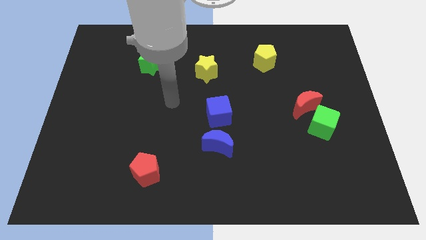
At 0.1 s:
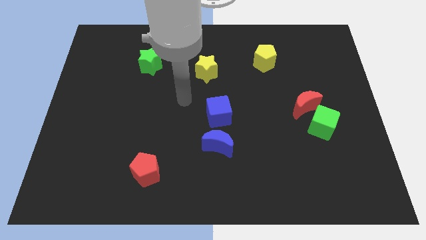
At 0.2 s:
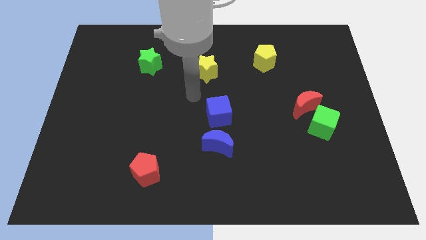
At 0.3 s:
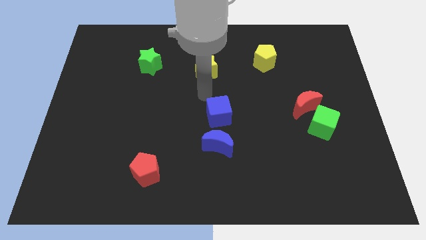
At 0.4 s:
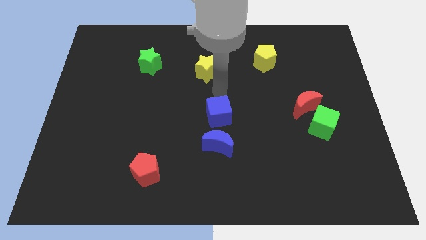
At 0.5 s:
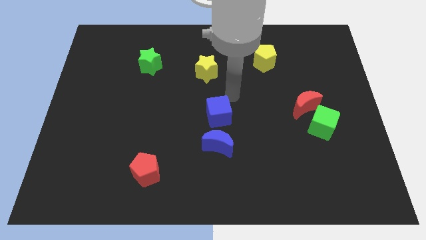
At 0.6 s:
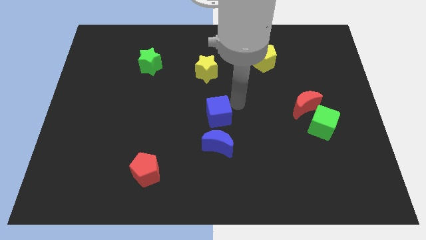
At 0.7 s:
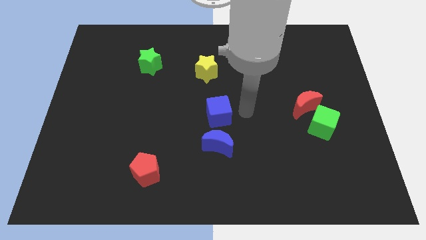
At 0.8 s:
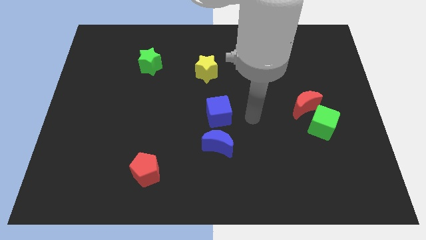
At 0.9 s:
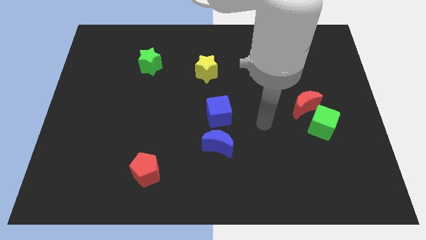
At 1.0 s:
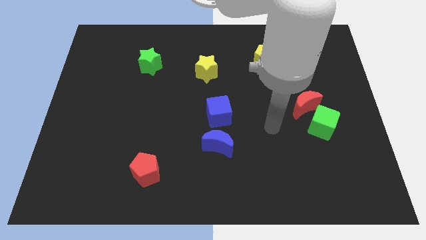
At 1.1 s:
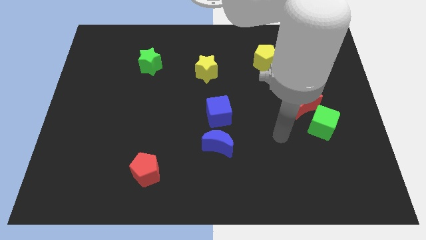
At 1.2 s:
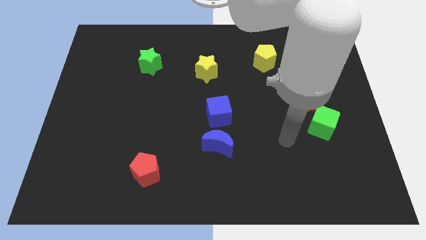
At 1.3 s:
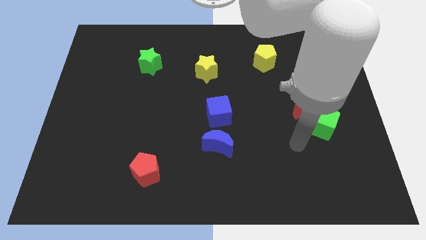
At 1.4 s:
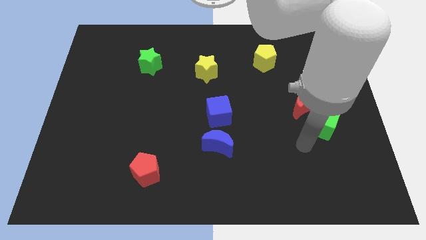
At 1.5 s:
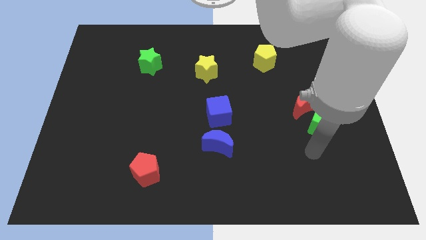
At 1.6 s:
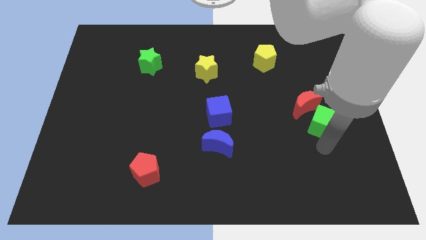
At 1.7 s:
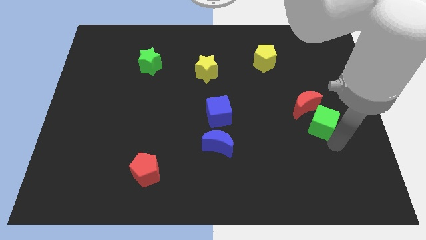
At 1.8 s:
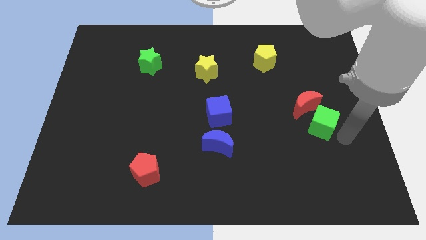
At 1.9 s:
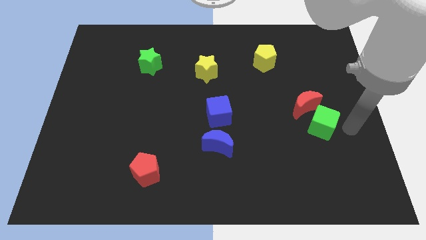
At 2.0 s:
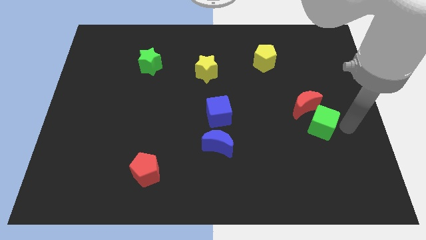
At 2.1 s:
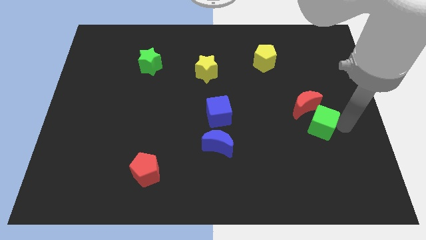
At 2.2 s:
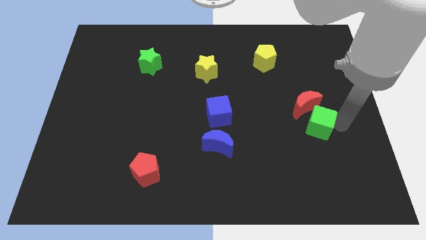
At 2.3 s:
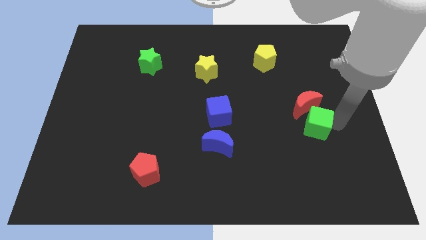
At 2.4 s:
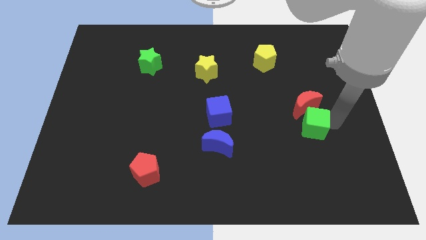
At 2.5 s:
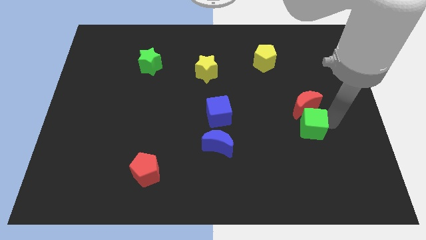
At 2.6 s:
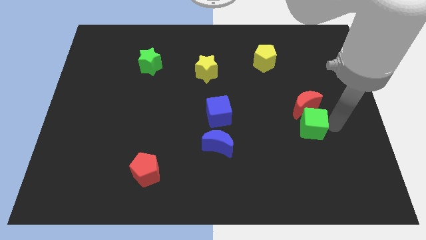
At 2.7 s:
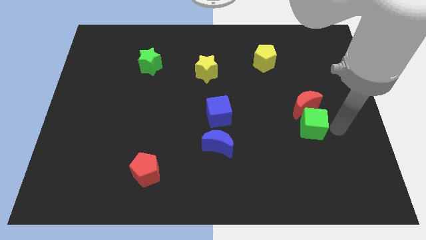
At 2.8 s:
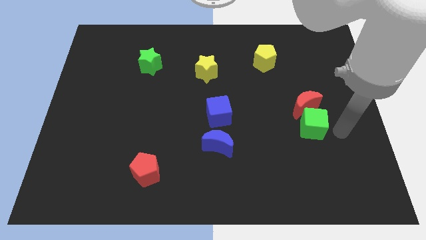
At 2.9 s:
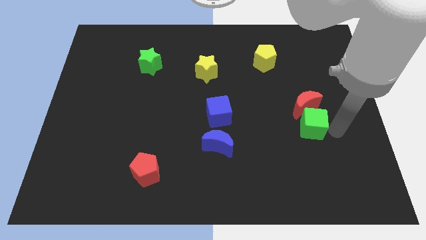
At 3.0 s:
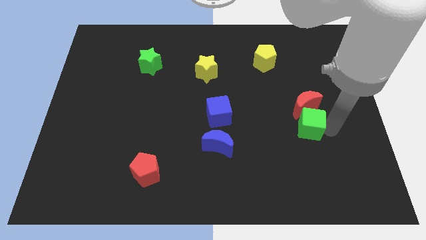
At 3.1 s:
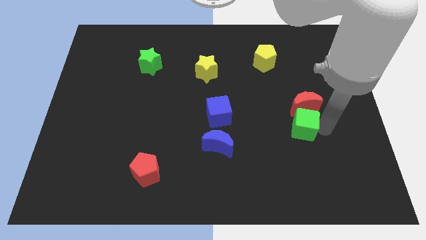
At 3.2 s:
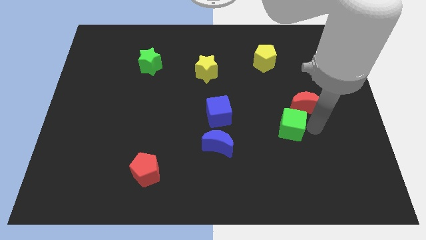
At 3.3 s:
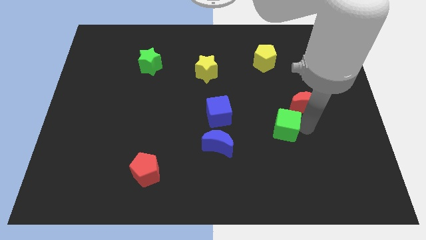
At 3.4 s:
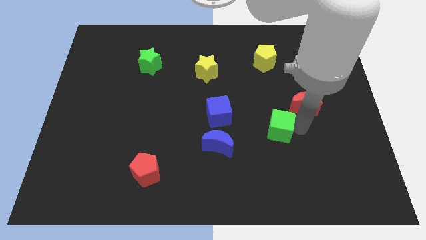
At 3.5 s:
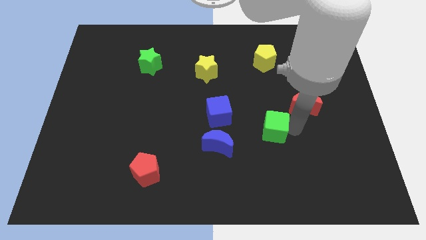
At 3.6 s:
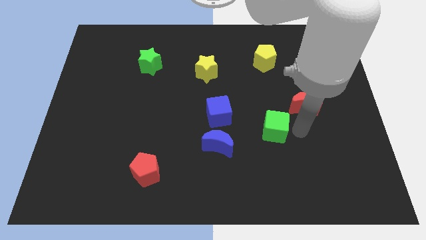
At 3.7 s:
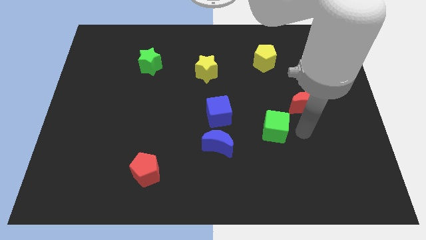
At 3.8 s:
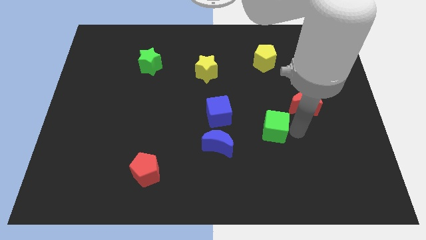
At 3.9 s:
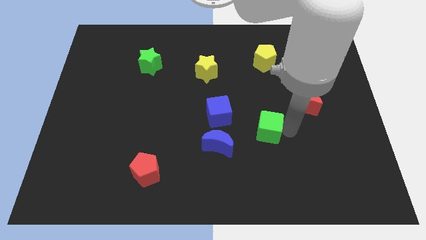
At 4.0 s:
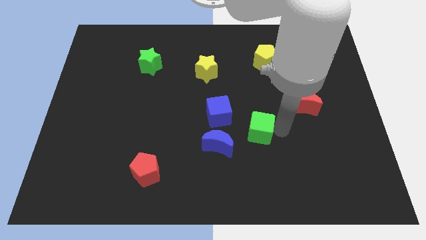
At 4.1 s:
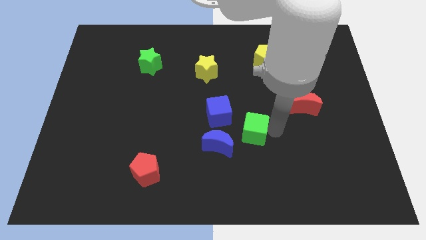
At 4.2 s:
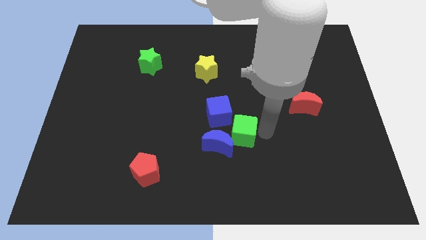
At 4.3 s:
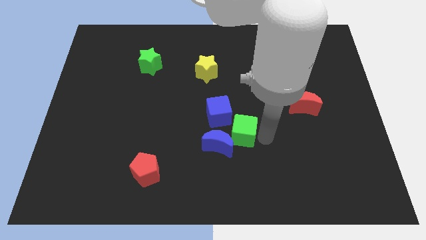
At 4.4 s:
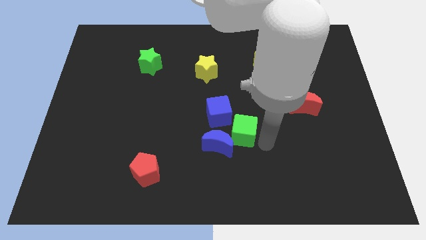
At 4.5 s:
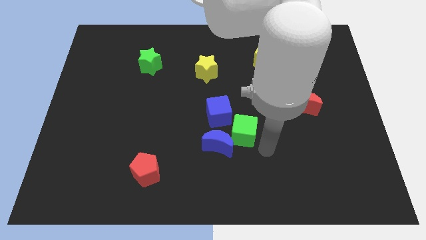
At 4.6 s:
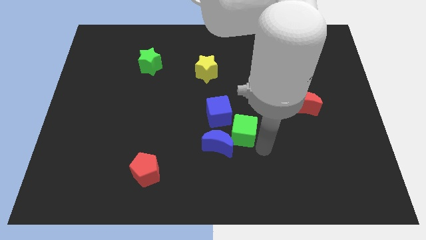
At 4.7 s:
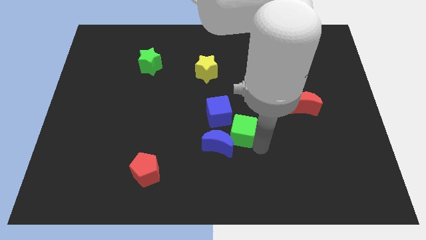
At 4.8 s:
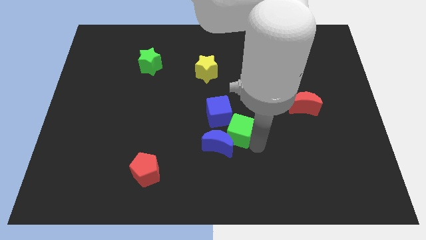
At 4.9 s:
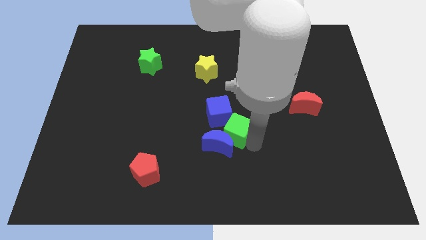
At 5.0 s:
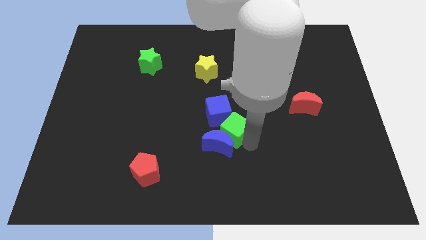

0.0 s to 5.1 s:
push the green cube to the blue cube

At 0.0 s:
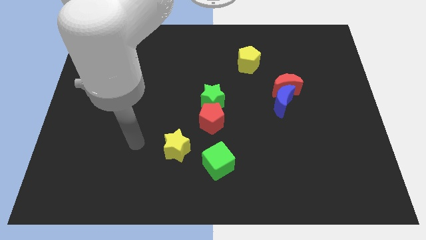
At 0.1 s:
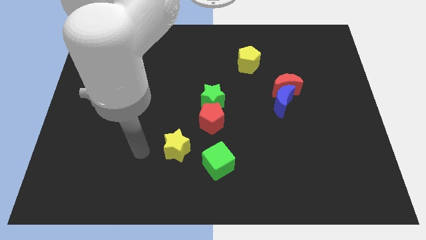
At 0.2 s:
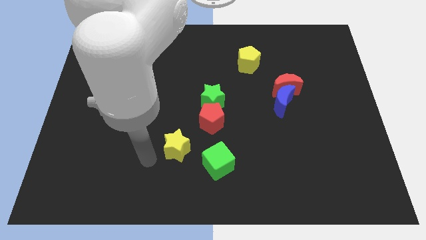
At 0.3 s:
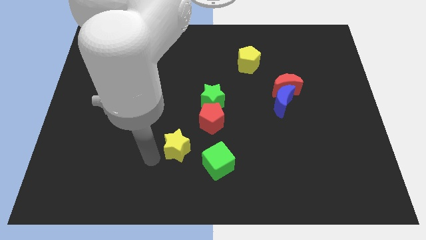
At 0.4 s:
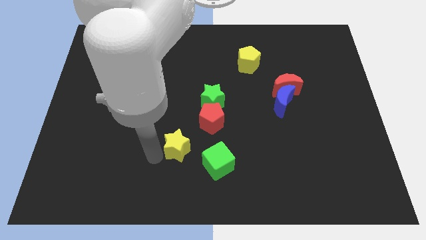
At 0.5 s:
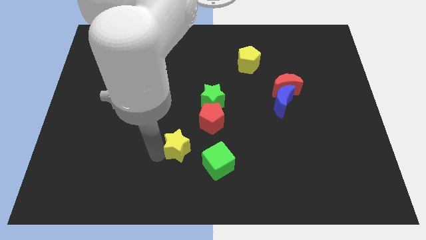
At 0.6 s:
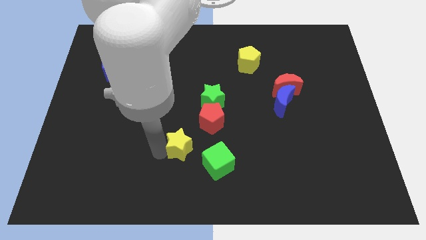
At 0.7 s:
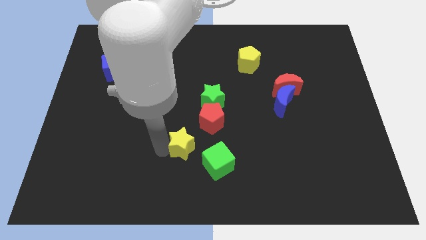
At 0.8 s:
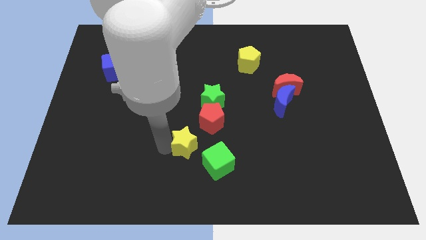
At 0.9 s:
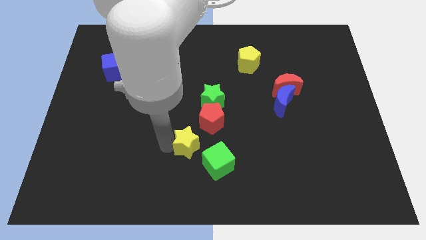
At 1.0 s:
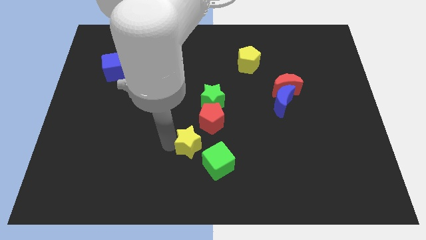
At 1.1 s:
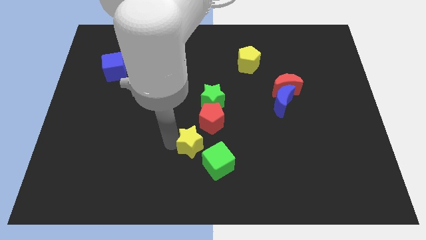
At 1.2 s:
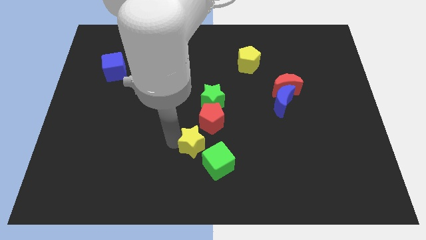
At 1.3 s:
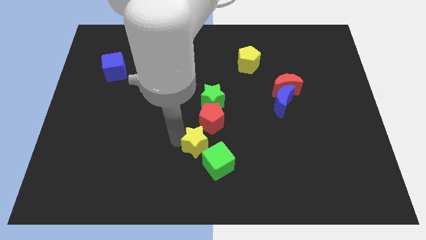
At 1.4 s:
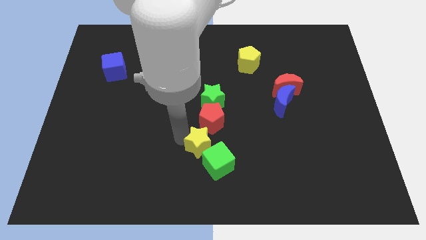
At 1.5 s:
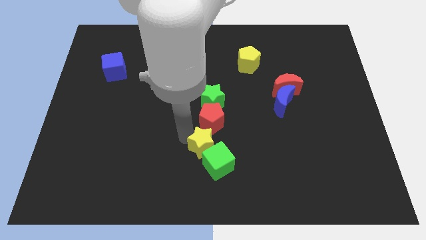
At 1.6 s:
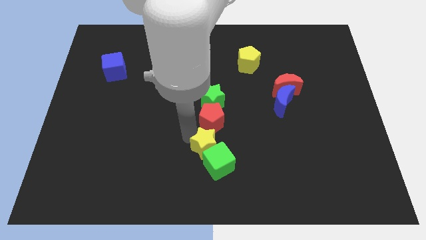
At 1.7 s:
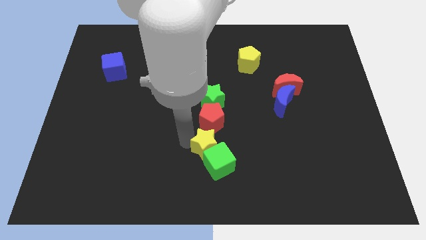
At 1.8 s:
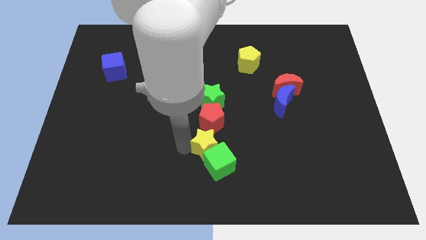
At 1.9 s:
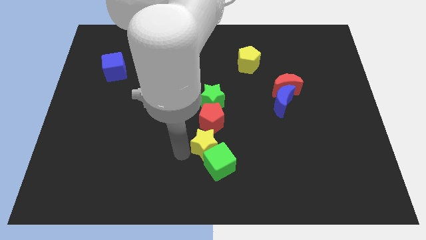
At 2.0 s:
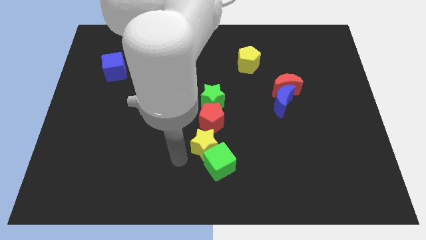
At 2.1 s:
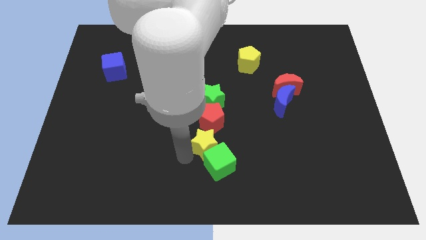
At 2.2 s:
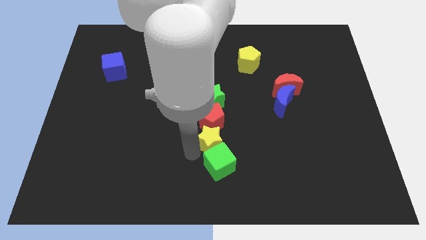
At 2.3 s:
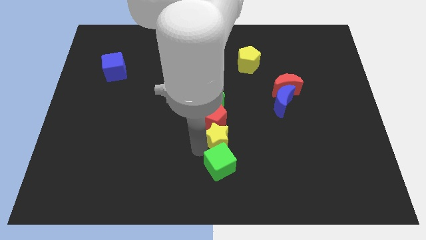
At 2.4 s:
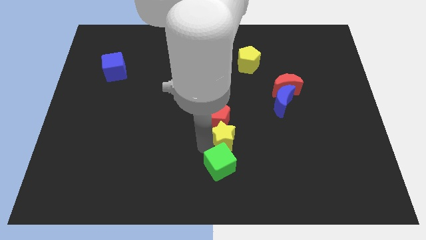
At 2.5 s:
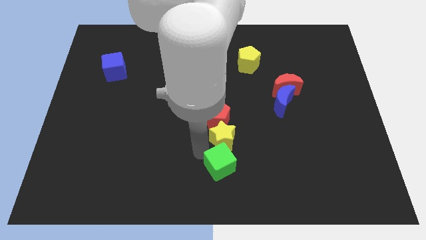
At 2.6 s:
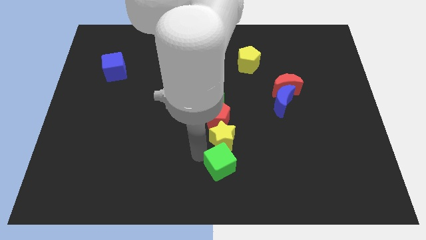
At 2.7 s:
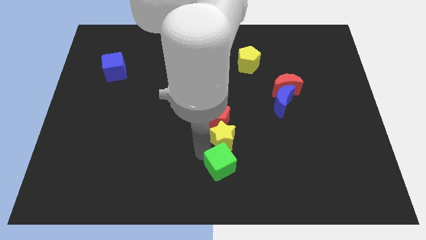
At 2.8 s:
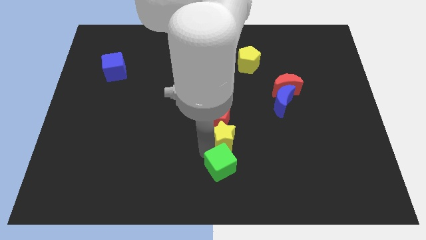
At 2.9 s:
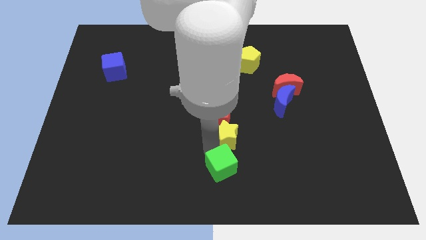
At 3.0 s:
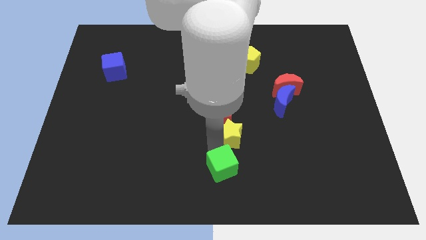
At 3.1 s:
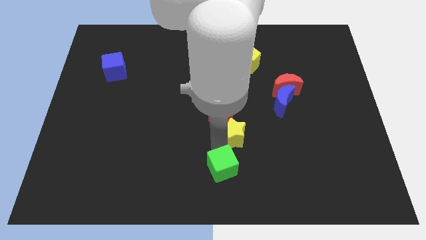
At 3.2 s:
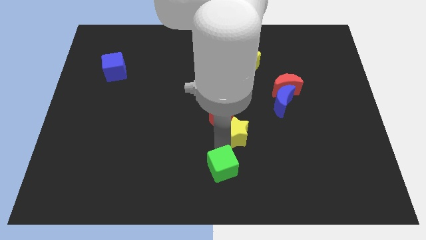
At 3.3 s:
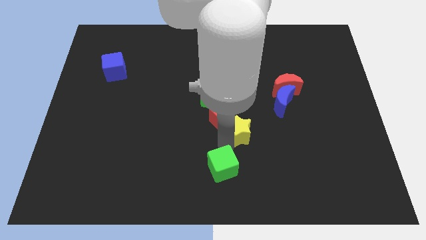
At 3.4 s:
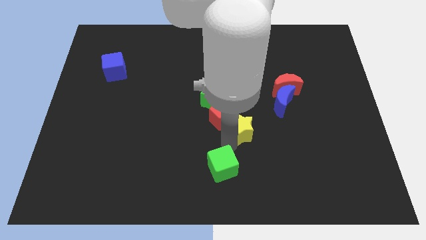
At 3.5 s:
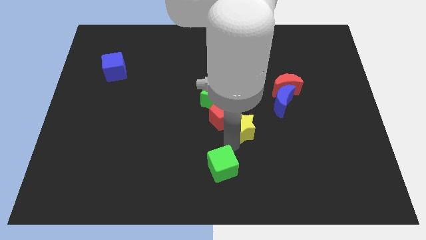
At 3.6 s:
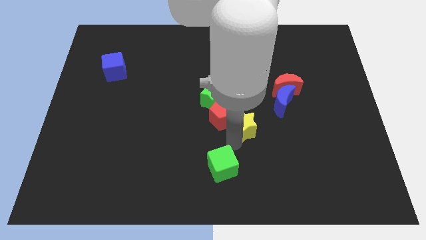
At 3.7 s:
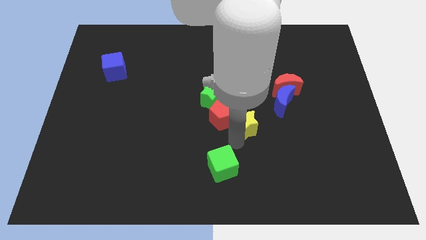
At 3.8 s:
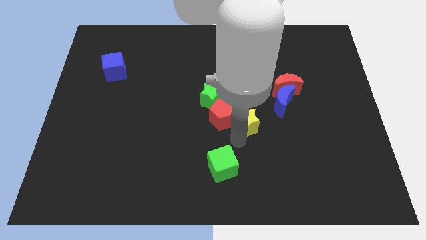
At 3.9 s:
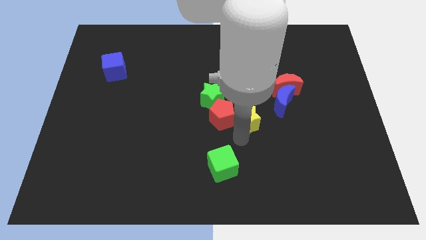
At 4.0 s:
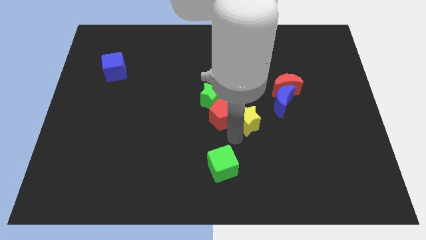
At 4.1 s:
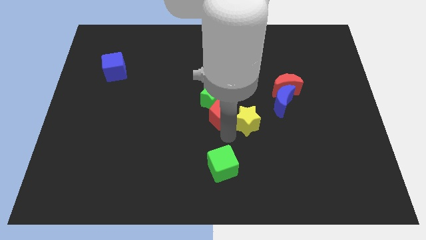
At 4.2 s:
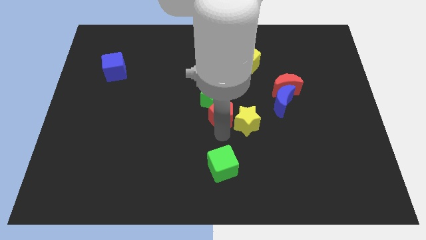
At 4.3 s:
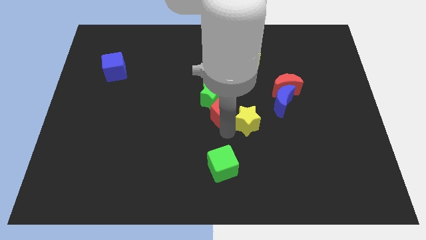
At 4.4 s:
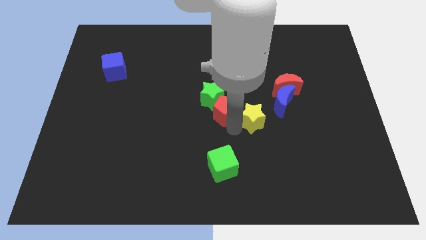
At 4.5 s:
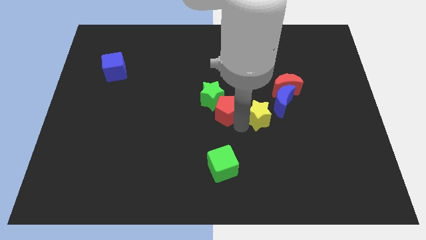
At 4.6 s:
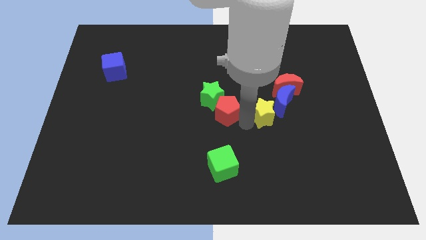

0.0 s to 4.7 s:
push the yellow star close to the blue moon
